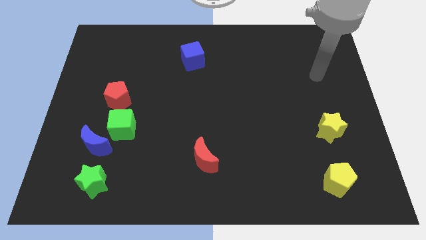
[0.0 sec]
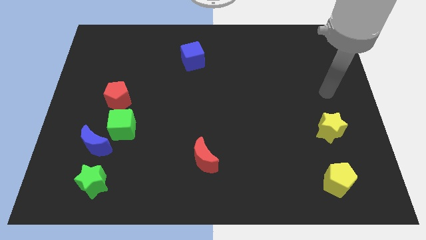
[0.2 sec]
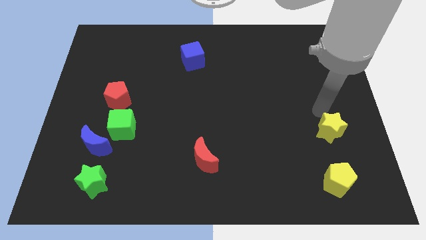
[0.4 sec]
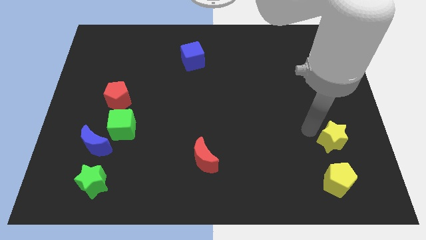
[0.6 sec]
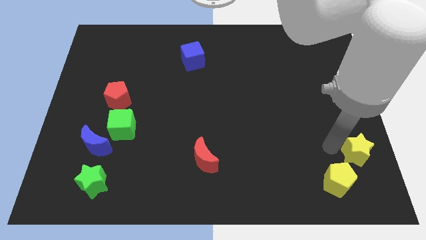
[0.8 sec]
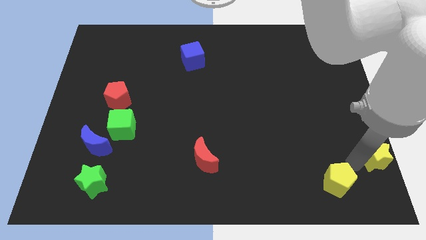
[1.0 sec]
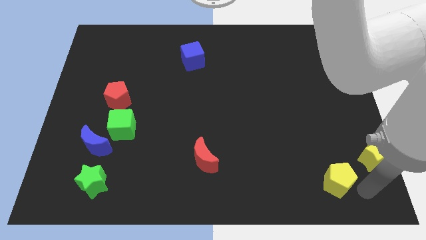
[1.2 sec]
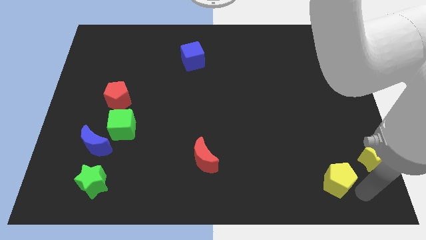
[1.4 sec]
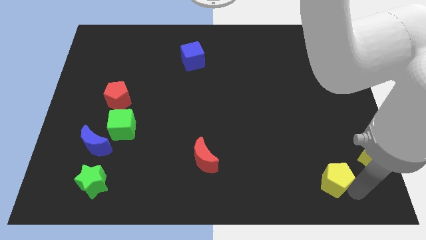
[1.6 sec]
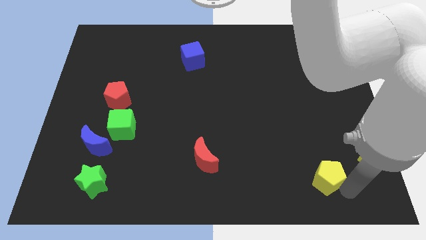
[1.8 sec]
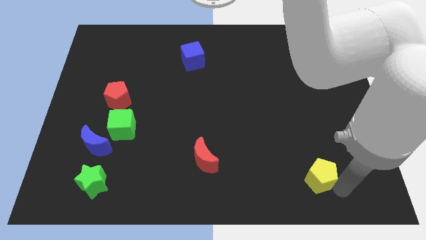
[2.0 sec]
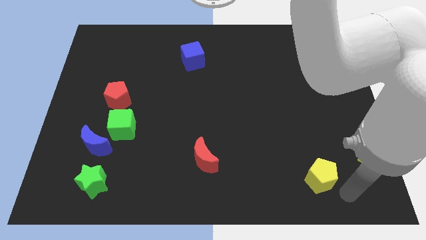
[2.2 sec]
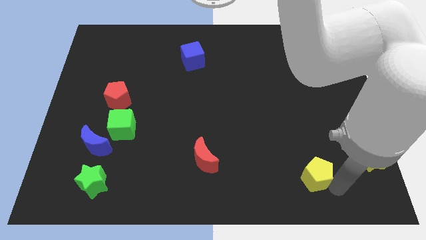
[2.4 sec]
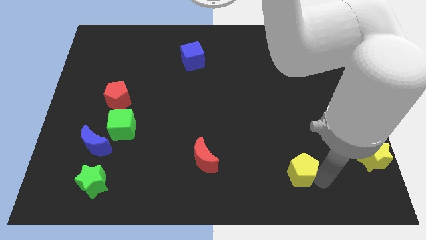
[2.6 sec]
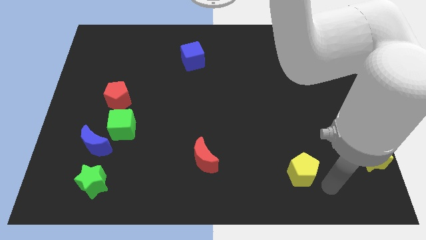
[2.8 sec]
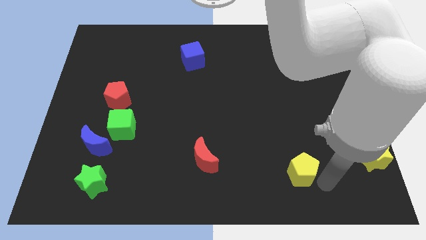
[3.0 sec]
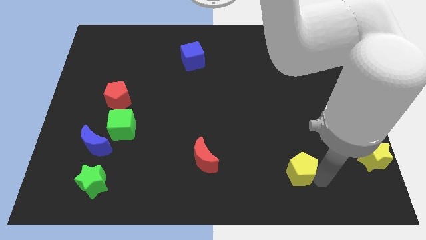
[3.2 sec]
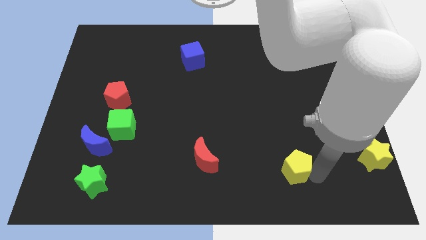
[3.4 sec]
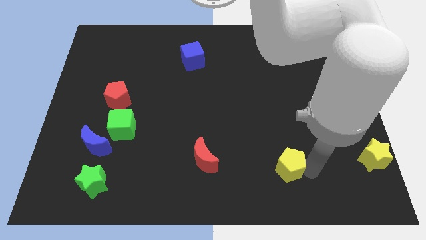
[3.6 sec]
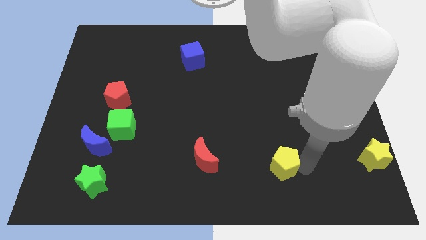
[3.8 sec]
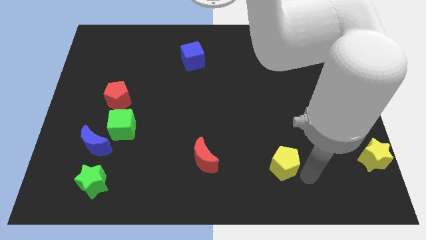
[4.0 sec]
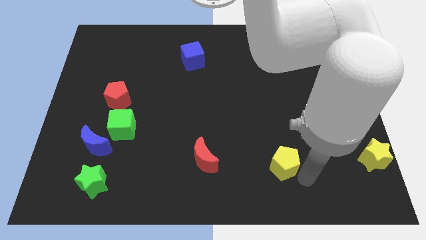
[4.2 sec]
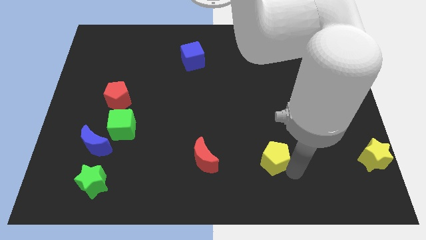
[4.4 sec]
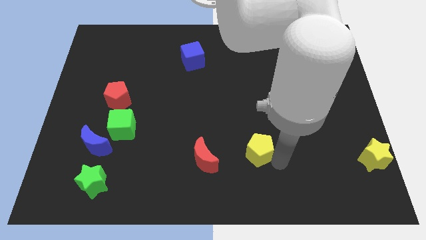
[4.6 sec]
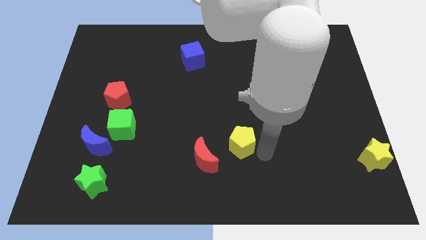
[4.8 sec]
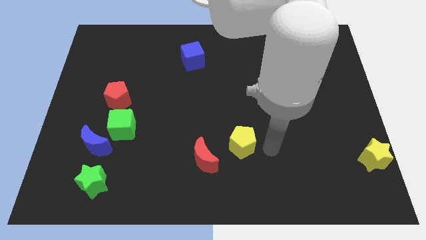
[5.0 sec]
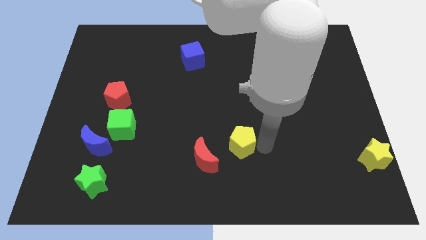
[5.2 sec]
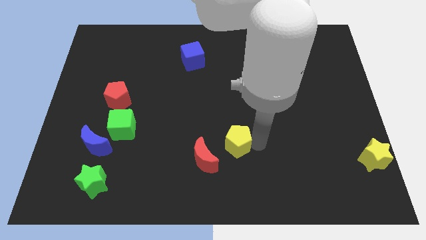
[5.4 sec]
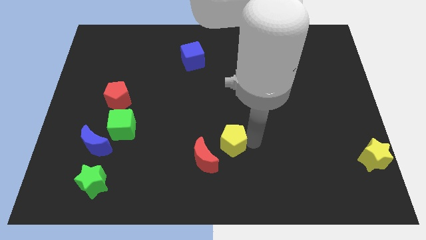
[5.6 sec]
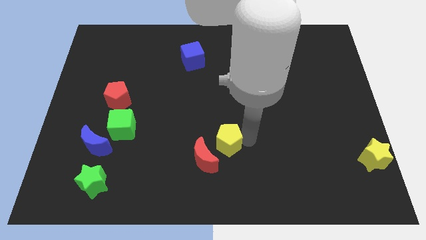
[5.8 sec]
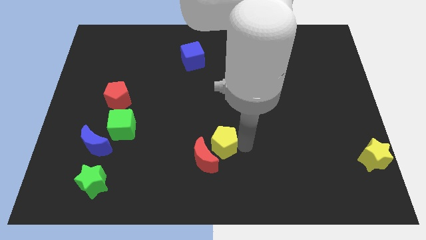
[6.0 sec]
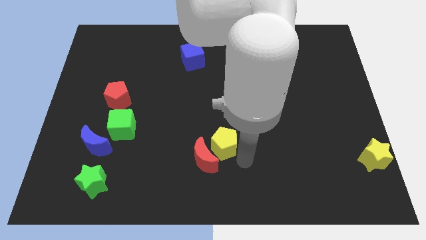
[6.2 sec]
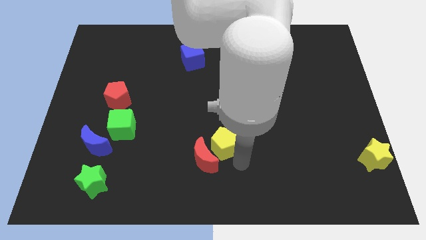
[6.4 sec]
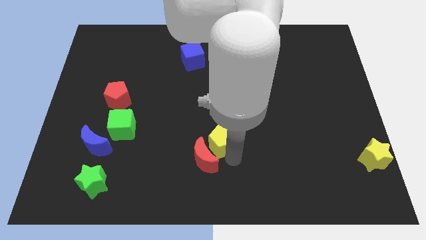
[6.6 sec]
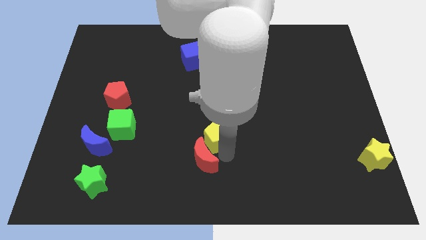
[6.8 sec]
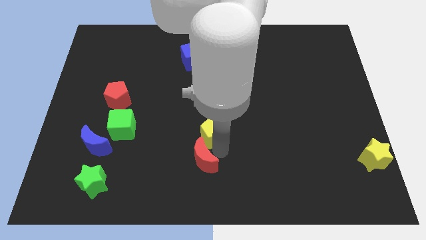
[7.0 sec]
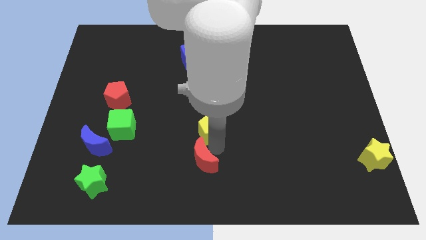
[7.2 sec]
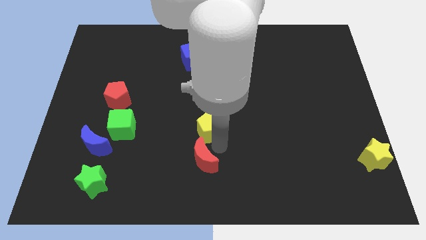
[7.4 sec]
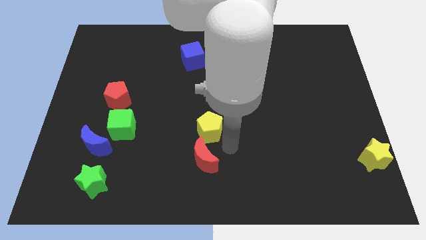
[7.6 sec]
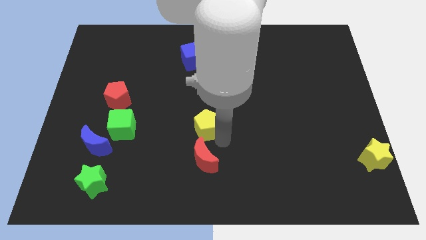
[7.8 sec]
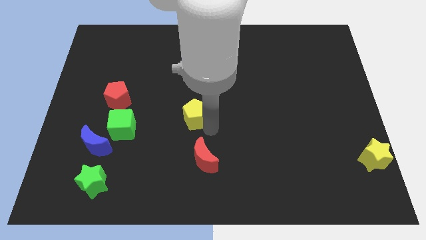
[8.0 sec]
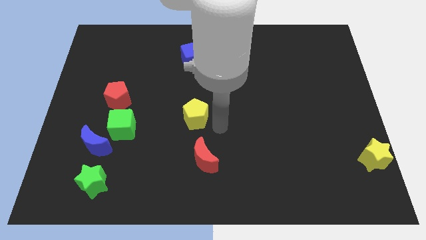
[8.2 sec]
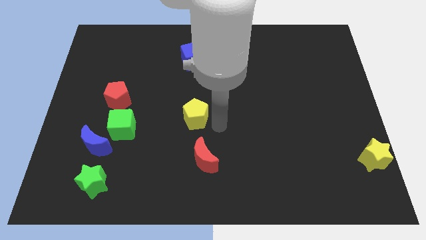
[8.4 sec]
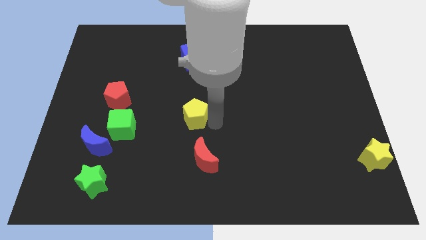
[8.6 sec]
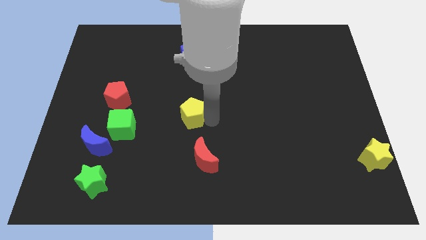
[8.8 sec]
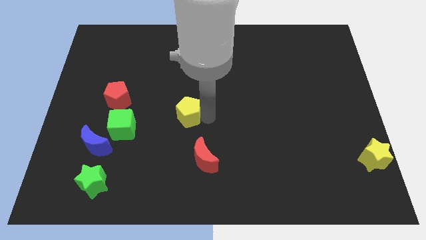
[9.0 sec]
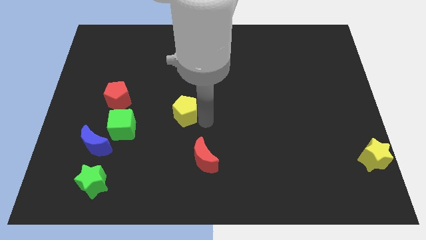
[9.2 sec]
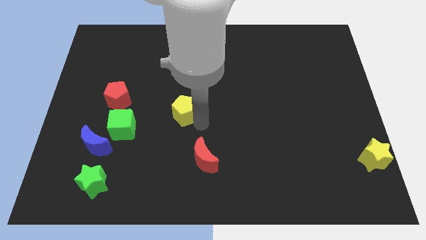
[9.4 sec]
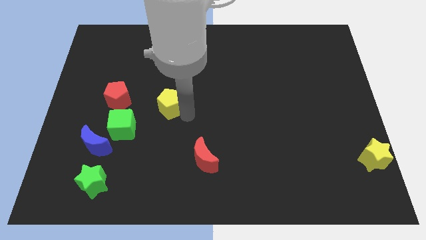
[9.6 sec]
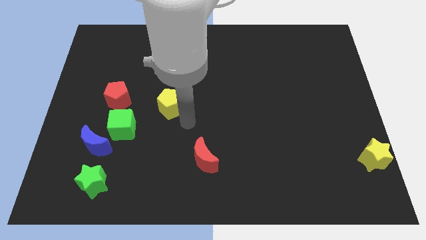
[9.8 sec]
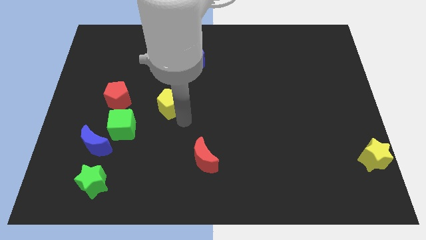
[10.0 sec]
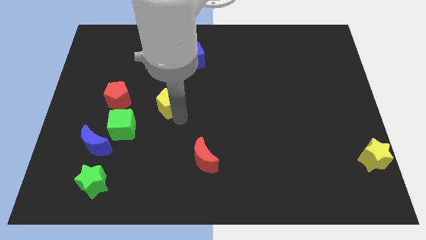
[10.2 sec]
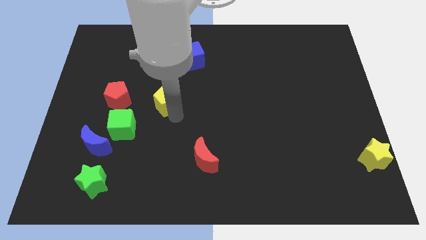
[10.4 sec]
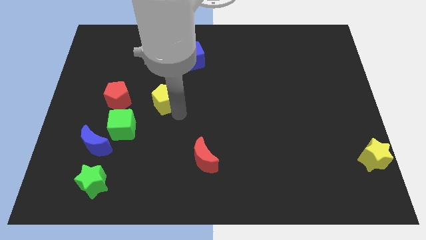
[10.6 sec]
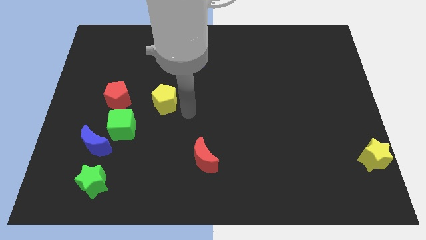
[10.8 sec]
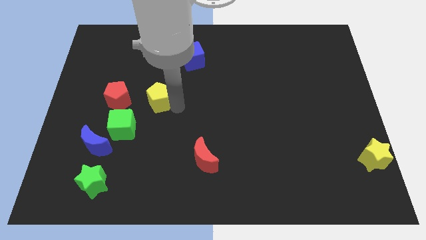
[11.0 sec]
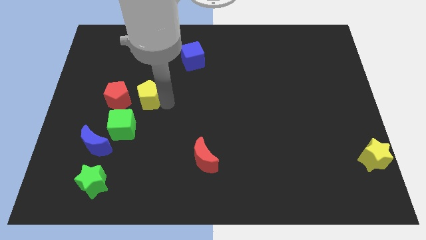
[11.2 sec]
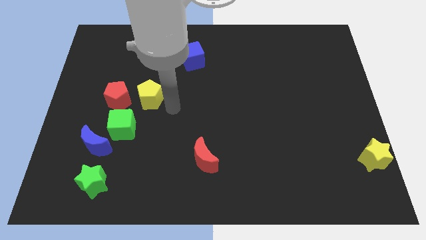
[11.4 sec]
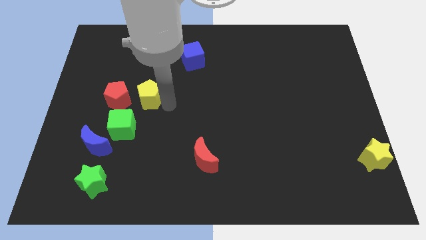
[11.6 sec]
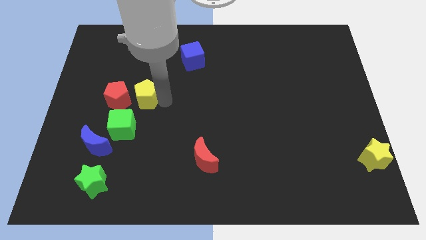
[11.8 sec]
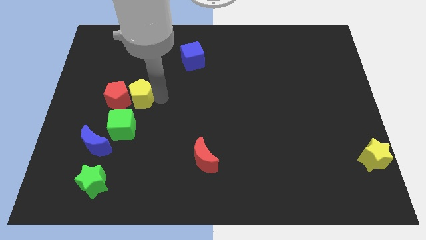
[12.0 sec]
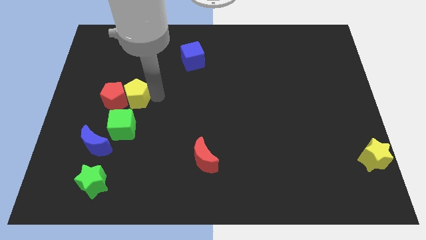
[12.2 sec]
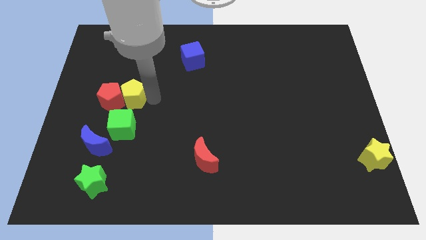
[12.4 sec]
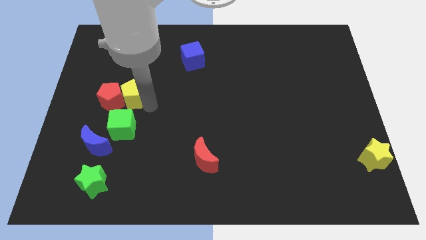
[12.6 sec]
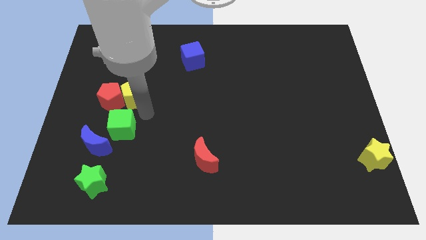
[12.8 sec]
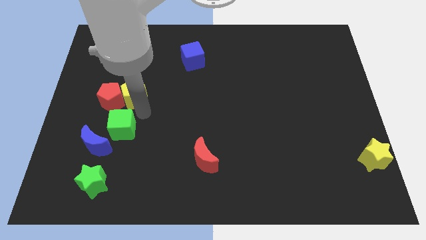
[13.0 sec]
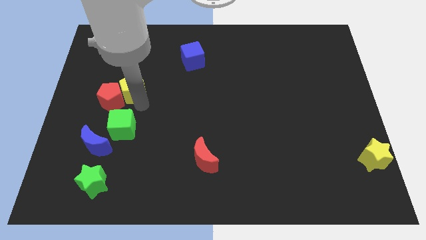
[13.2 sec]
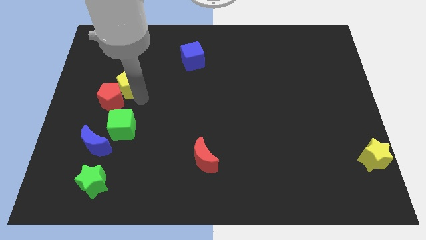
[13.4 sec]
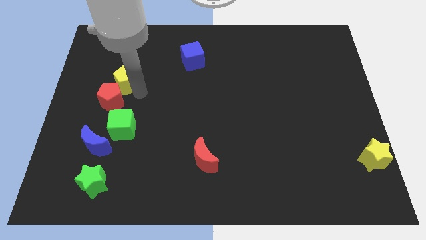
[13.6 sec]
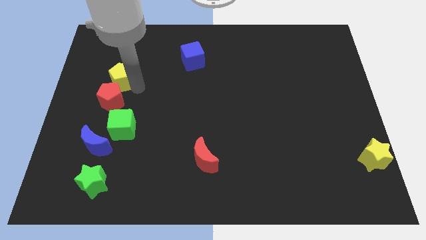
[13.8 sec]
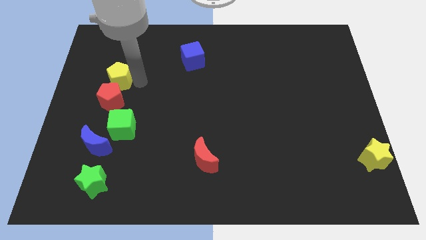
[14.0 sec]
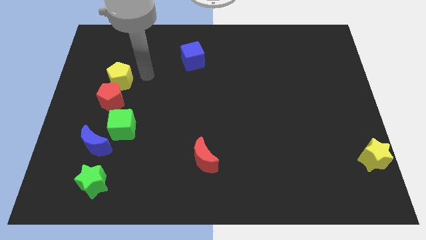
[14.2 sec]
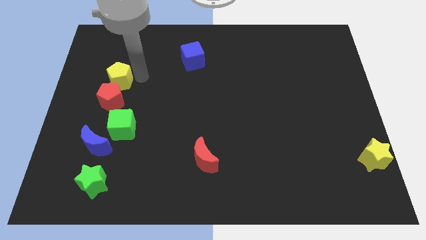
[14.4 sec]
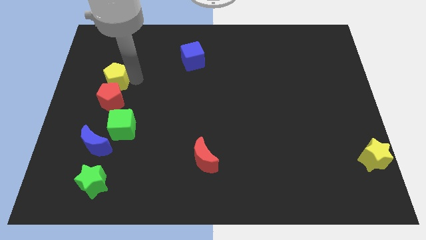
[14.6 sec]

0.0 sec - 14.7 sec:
slide the yellow pentagon to the top left side of the red pentagon
